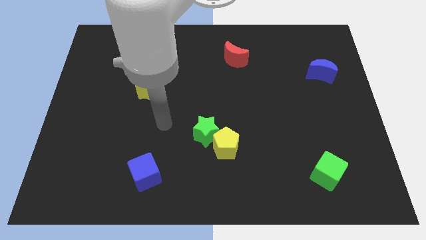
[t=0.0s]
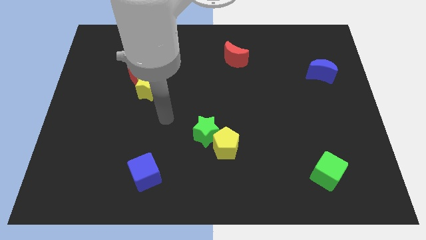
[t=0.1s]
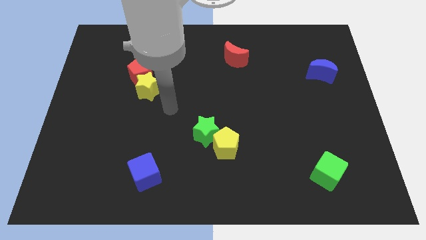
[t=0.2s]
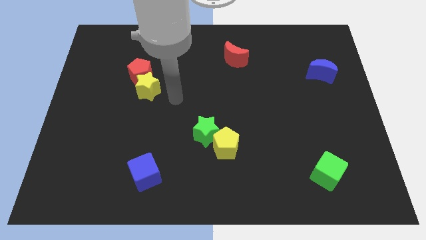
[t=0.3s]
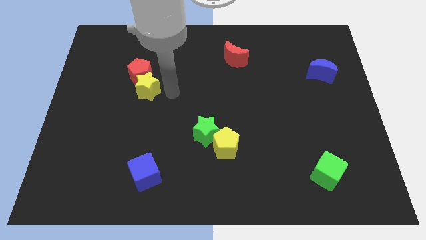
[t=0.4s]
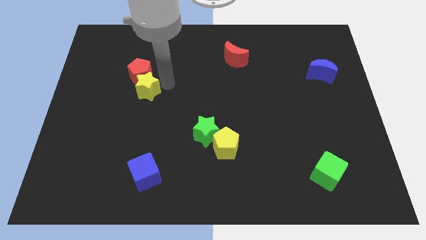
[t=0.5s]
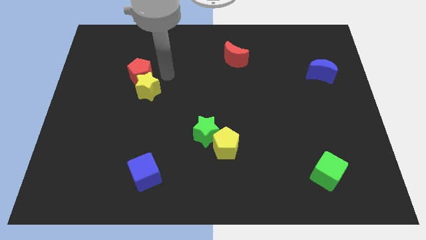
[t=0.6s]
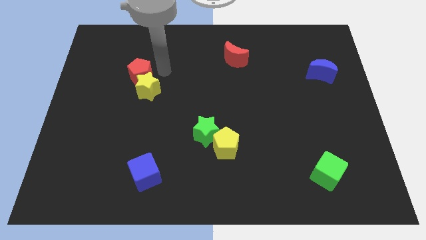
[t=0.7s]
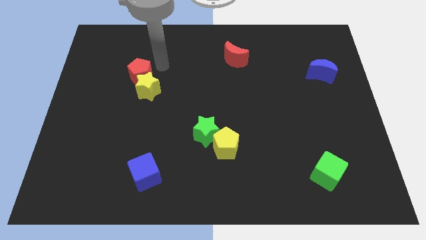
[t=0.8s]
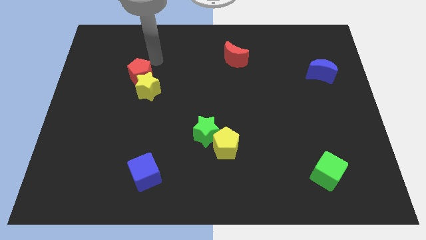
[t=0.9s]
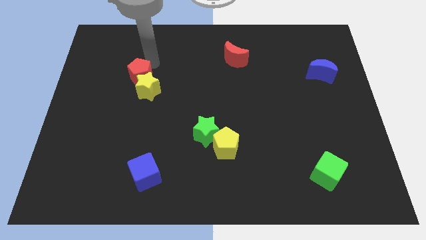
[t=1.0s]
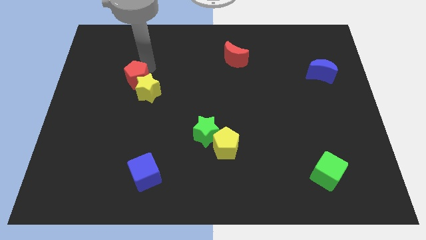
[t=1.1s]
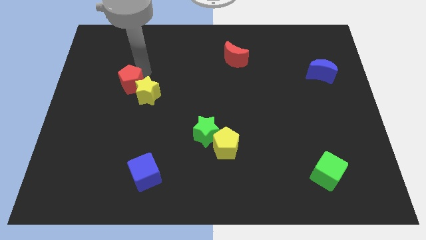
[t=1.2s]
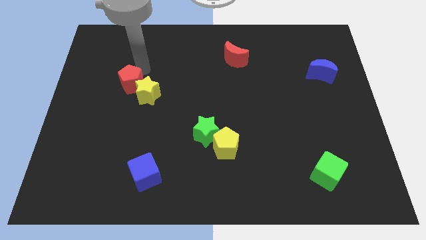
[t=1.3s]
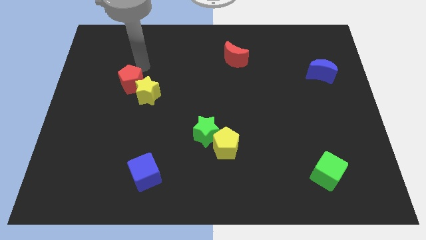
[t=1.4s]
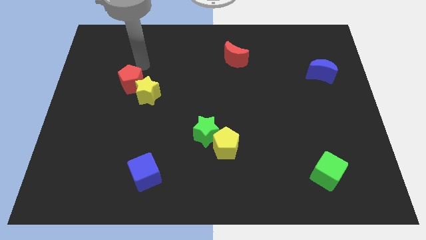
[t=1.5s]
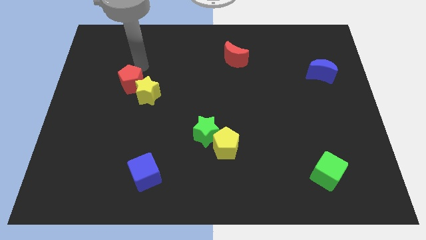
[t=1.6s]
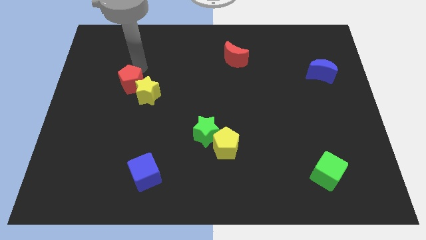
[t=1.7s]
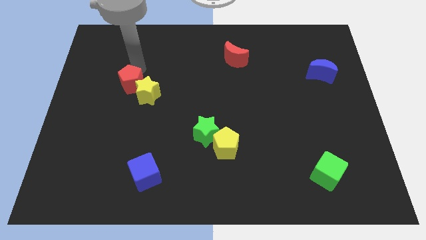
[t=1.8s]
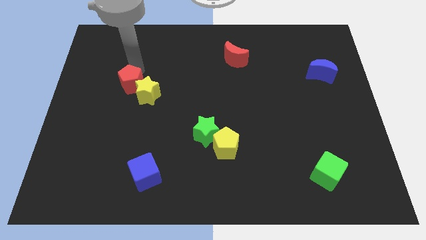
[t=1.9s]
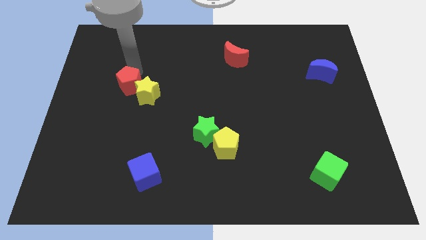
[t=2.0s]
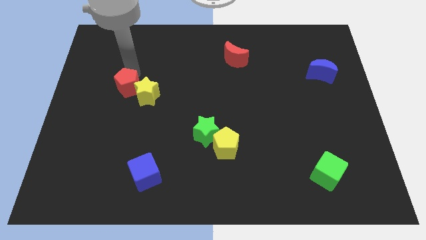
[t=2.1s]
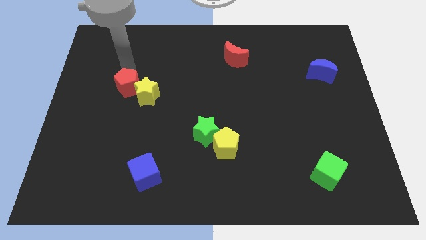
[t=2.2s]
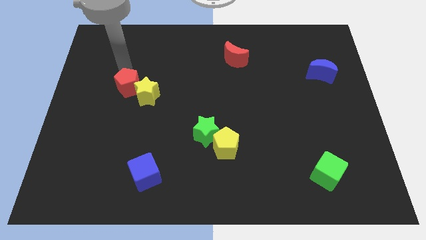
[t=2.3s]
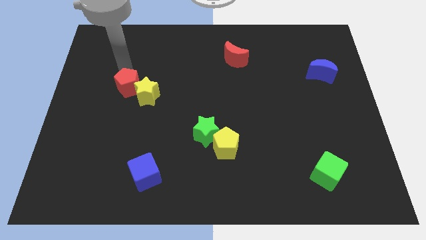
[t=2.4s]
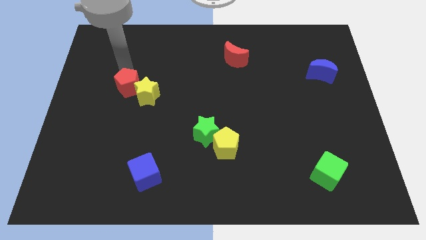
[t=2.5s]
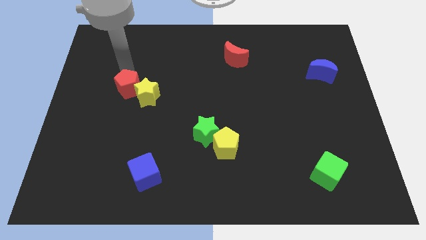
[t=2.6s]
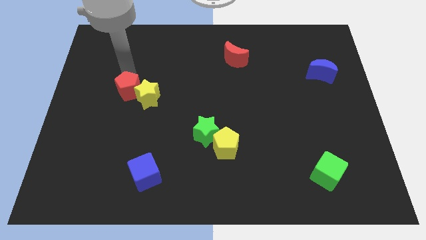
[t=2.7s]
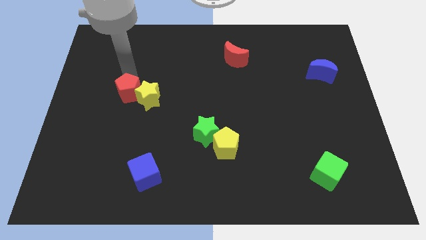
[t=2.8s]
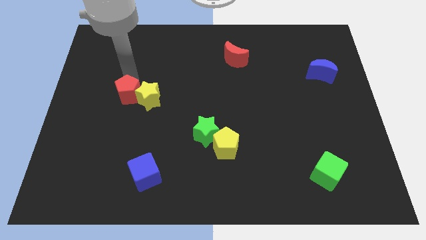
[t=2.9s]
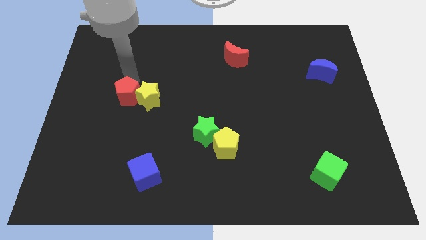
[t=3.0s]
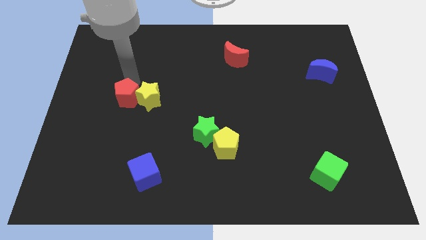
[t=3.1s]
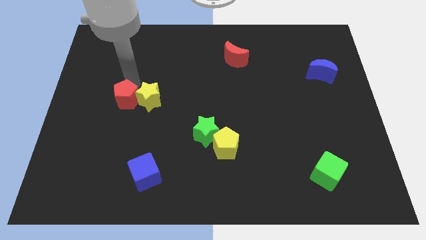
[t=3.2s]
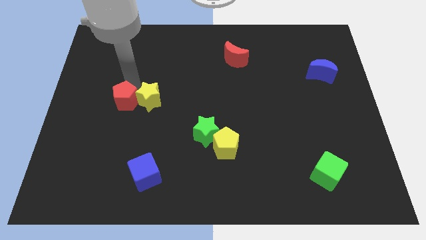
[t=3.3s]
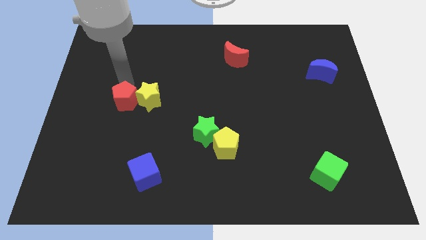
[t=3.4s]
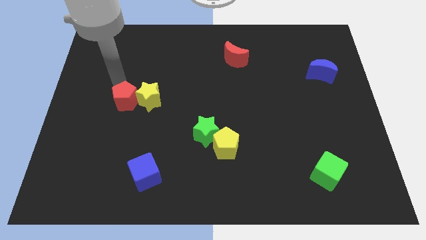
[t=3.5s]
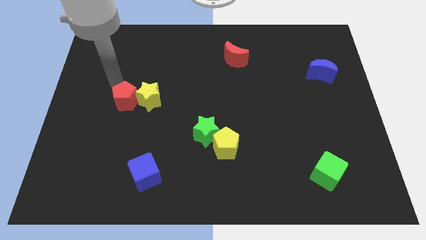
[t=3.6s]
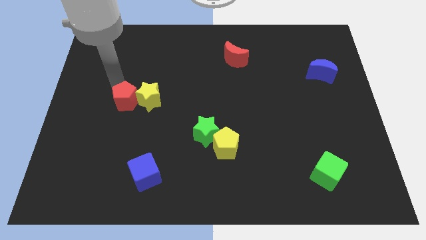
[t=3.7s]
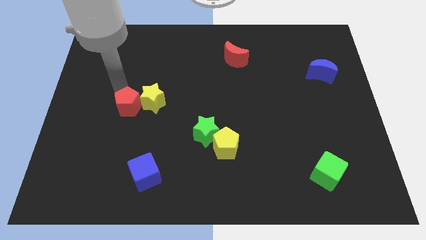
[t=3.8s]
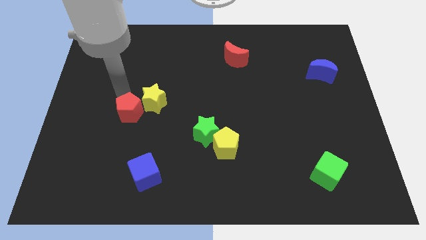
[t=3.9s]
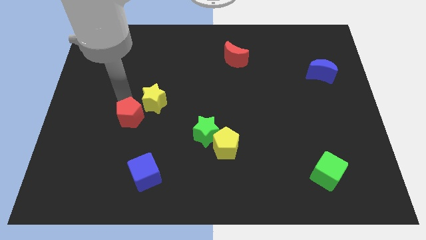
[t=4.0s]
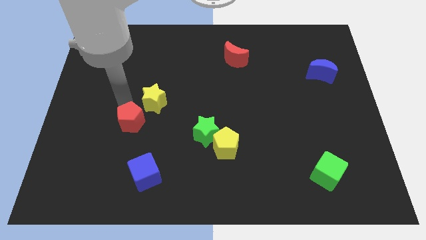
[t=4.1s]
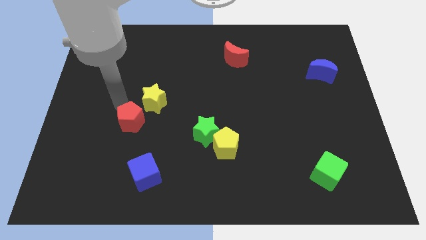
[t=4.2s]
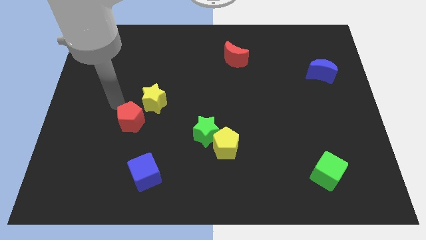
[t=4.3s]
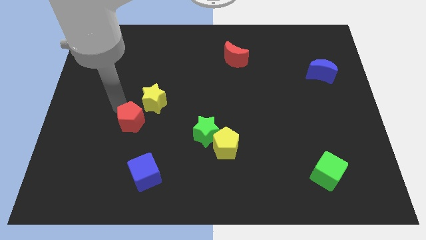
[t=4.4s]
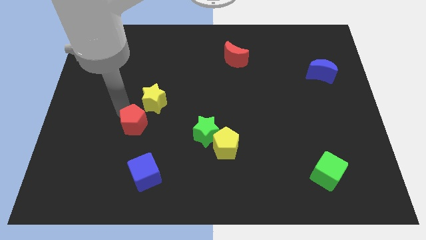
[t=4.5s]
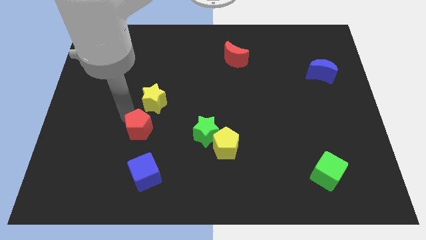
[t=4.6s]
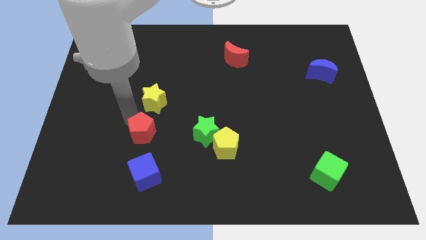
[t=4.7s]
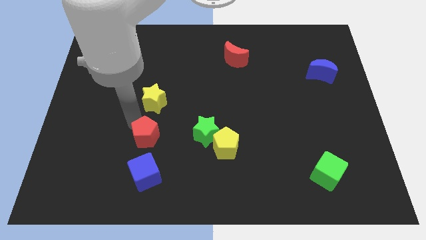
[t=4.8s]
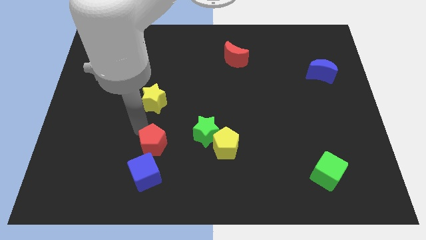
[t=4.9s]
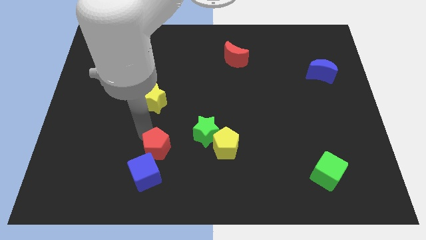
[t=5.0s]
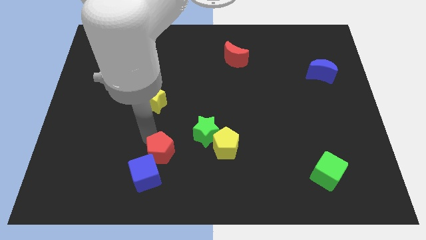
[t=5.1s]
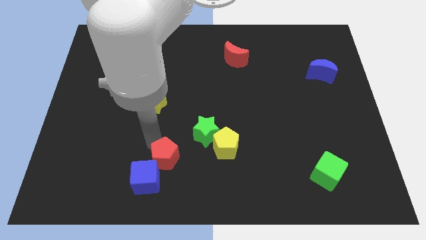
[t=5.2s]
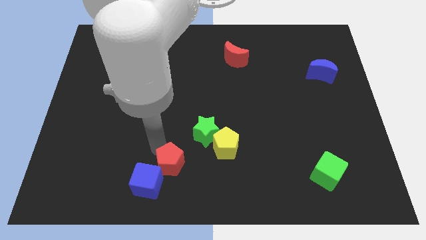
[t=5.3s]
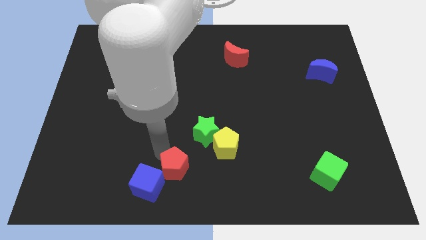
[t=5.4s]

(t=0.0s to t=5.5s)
put the red pentagon to the bottom side

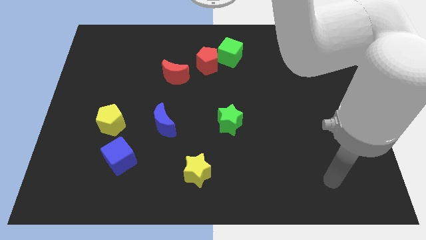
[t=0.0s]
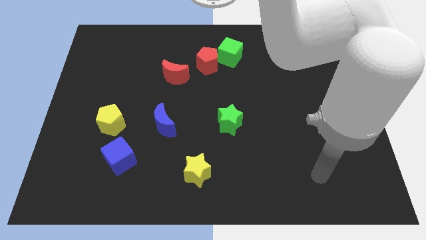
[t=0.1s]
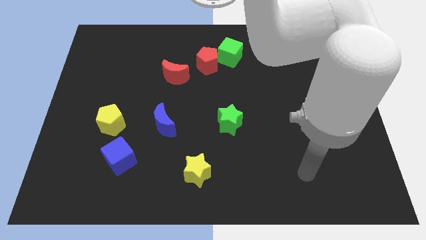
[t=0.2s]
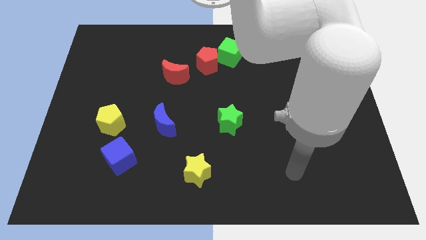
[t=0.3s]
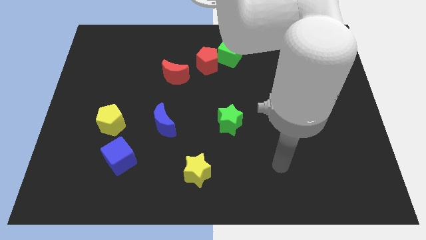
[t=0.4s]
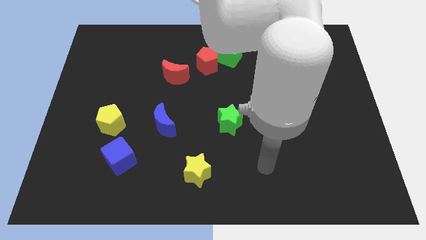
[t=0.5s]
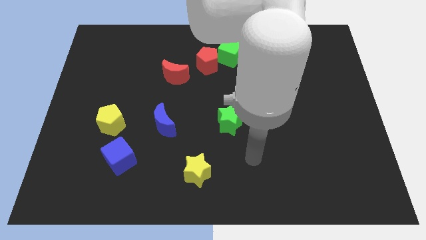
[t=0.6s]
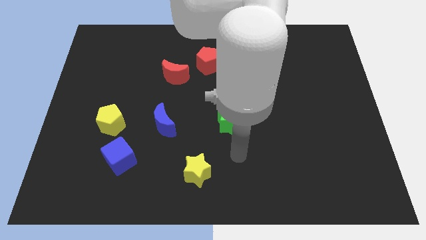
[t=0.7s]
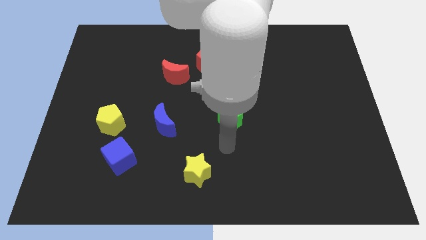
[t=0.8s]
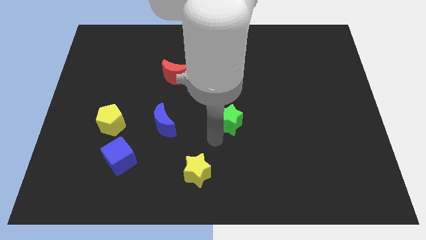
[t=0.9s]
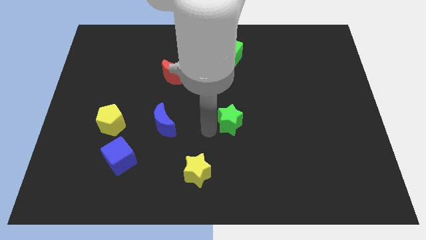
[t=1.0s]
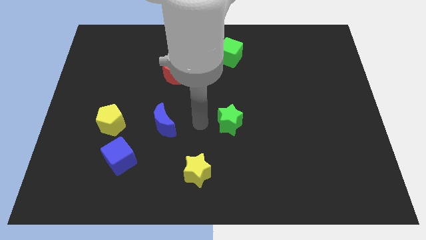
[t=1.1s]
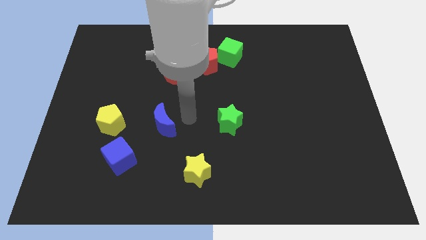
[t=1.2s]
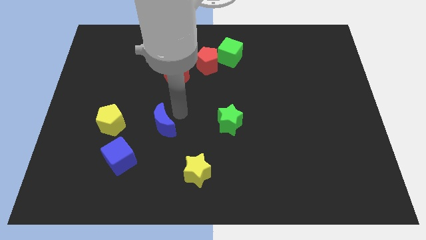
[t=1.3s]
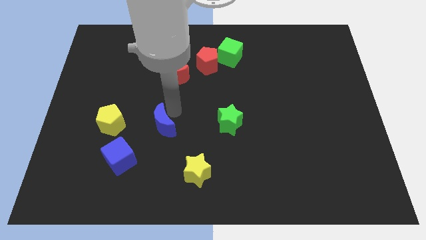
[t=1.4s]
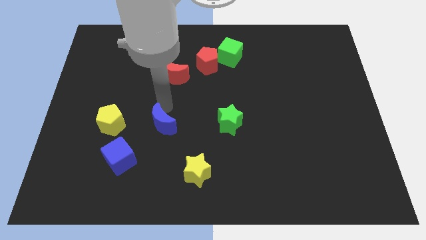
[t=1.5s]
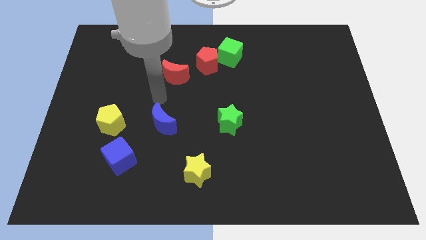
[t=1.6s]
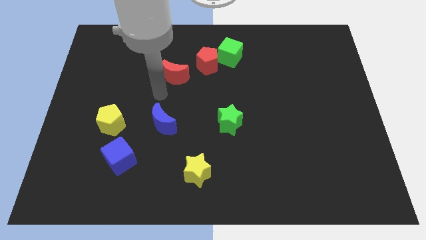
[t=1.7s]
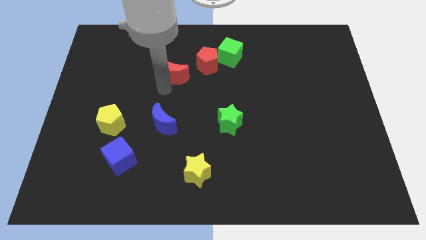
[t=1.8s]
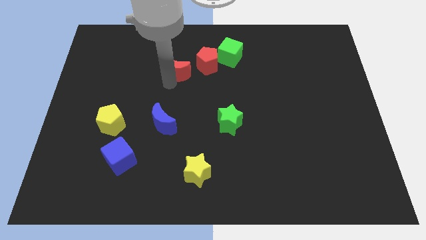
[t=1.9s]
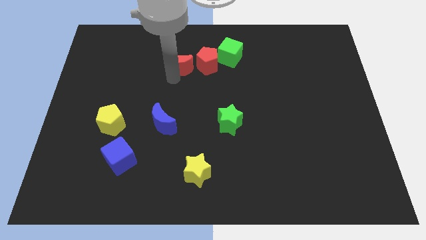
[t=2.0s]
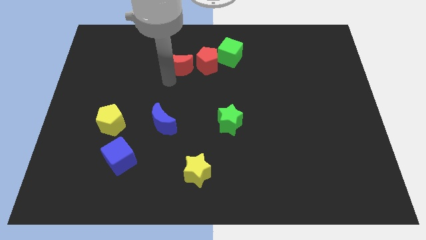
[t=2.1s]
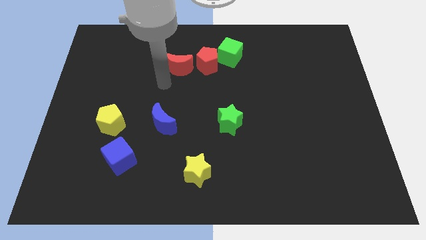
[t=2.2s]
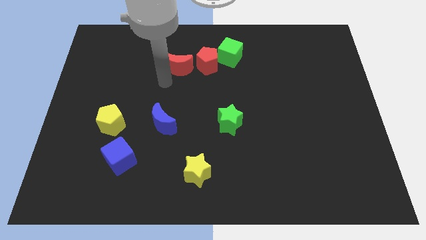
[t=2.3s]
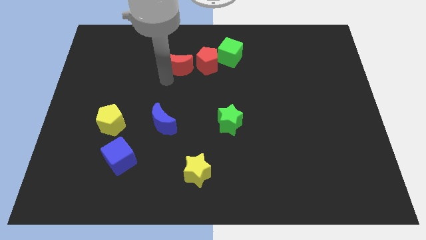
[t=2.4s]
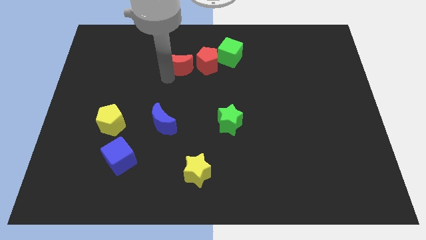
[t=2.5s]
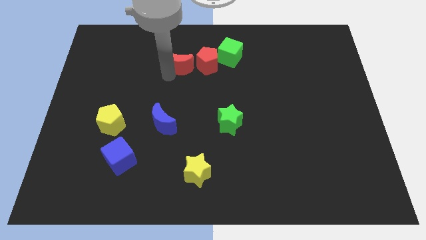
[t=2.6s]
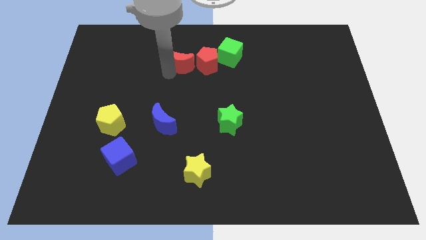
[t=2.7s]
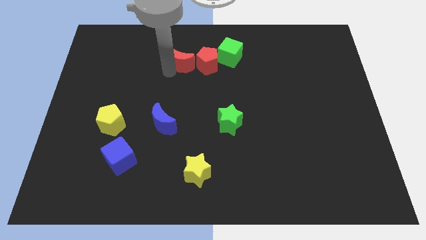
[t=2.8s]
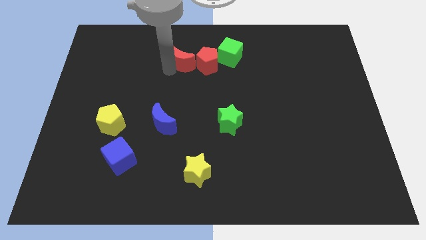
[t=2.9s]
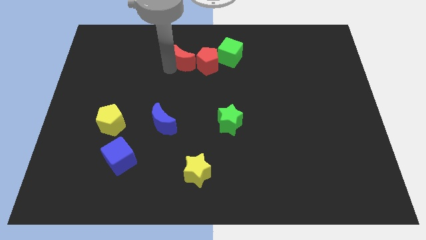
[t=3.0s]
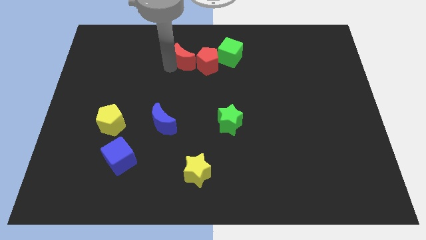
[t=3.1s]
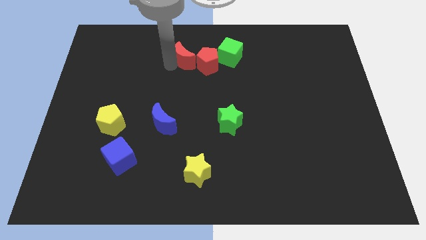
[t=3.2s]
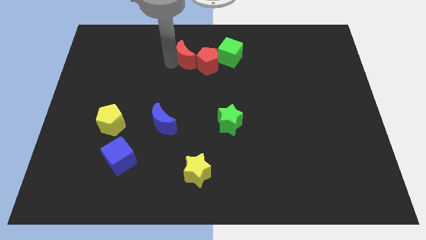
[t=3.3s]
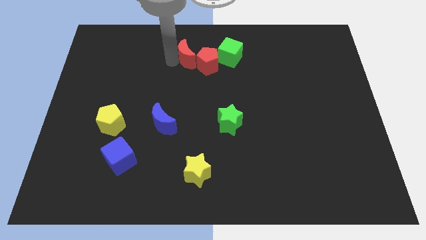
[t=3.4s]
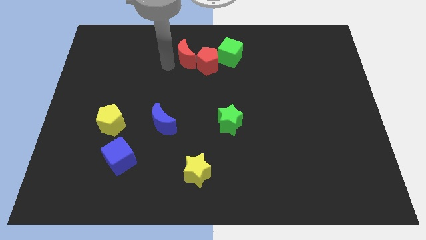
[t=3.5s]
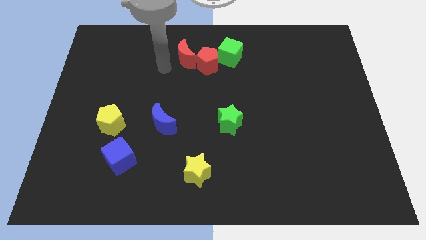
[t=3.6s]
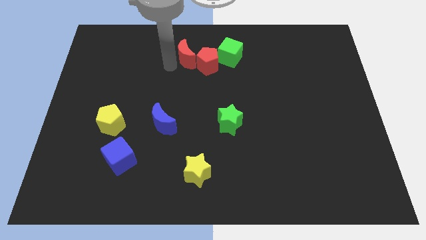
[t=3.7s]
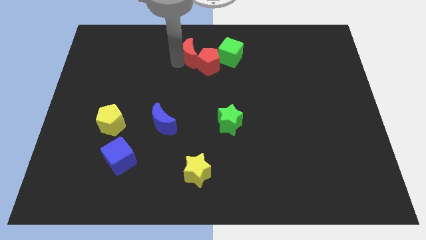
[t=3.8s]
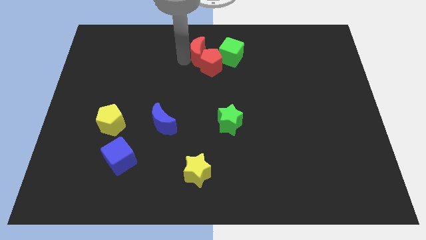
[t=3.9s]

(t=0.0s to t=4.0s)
move the red moon to the top side
